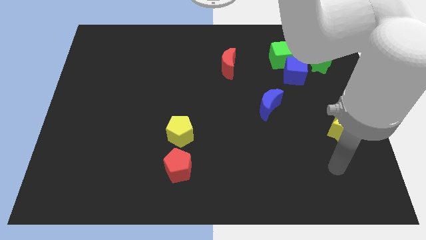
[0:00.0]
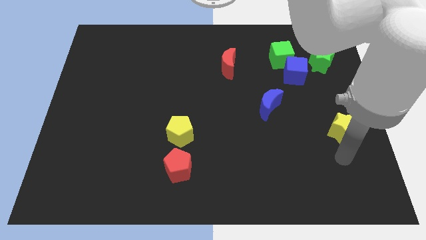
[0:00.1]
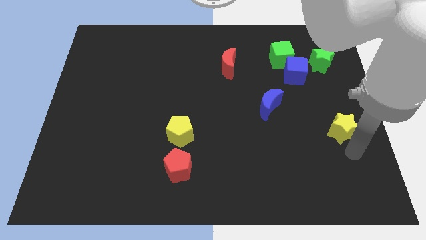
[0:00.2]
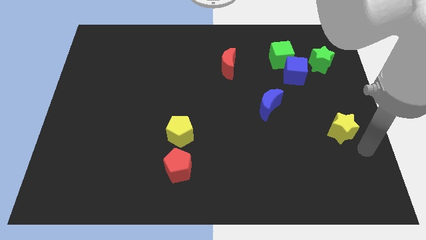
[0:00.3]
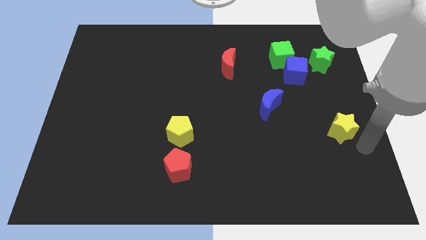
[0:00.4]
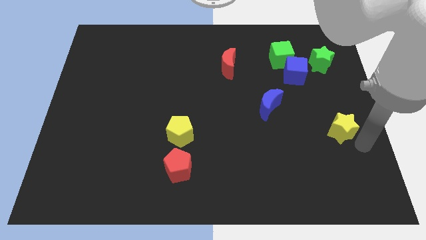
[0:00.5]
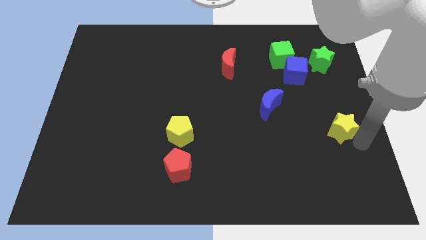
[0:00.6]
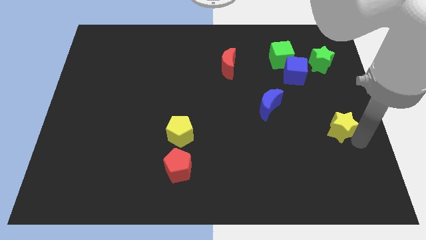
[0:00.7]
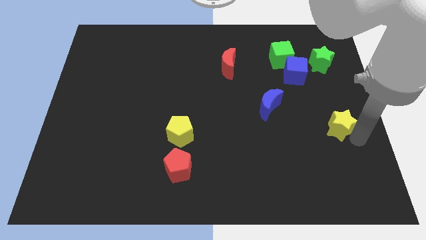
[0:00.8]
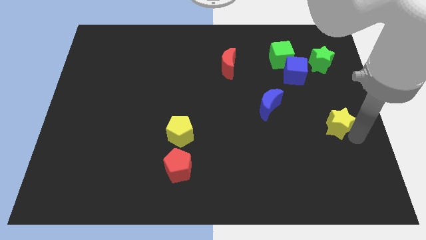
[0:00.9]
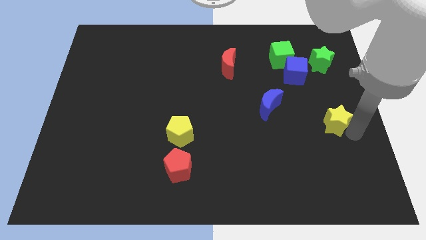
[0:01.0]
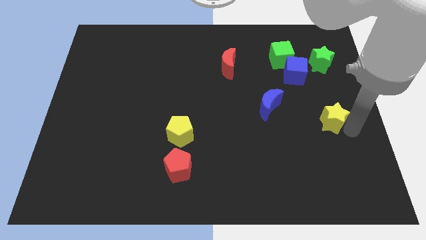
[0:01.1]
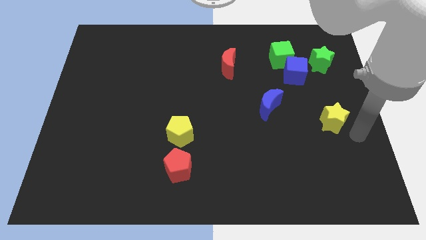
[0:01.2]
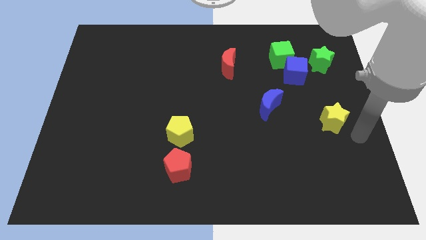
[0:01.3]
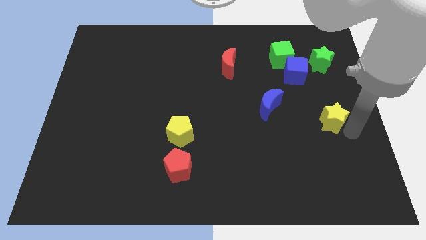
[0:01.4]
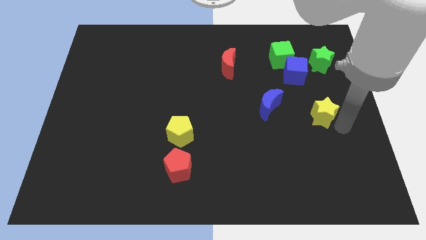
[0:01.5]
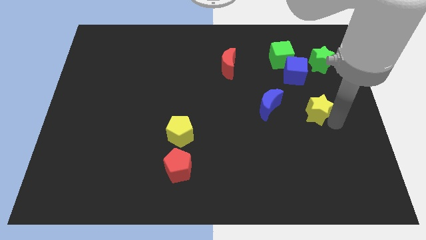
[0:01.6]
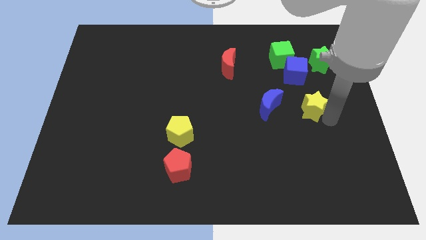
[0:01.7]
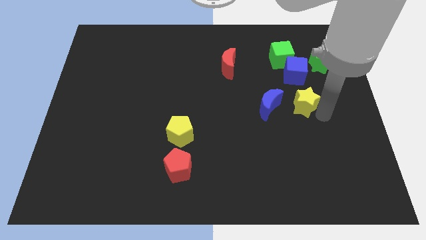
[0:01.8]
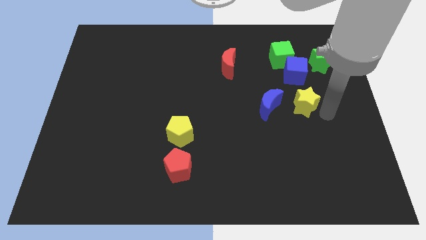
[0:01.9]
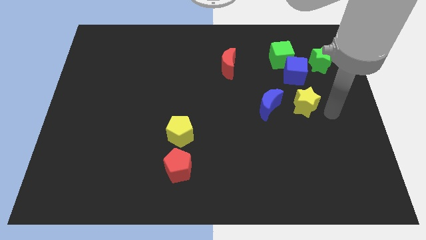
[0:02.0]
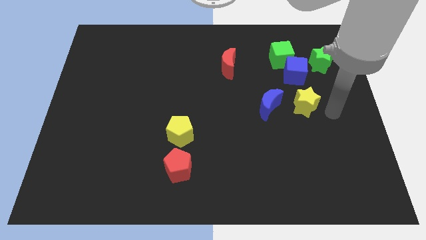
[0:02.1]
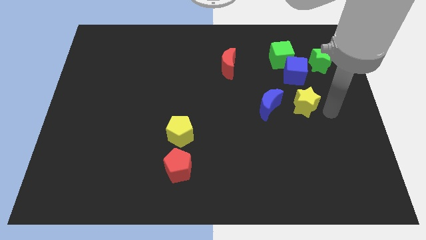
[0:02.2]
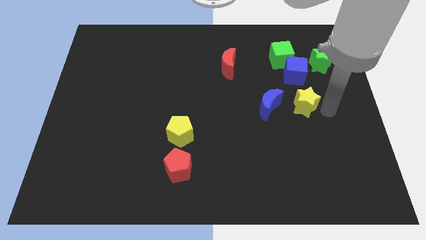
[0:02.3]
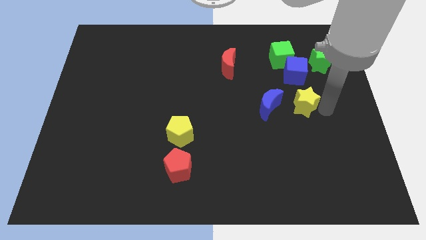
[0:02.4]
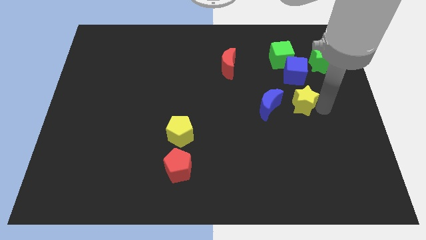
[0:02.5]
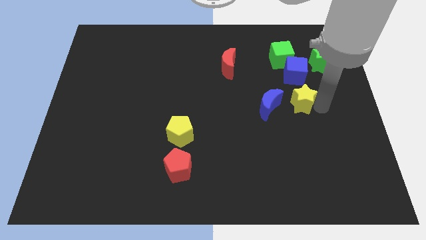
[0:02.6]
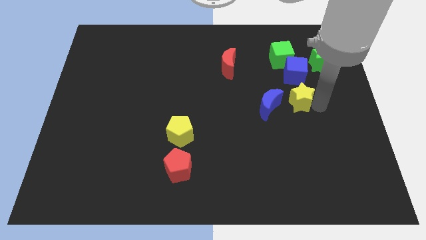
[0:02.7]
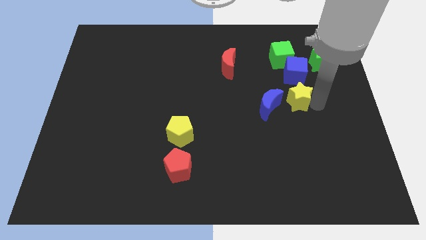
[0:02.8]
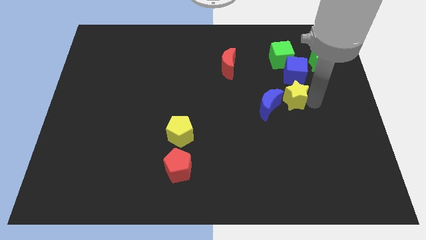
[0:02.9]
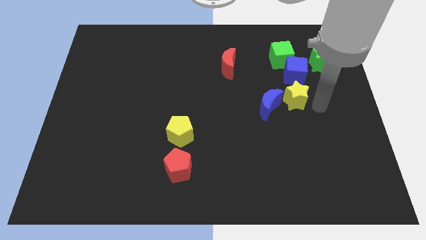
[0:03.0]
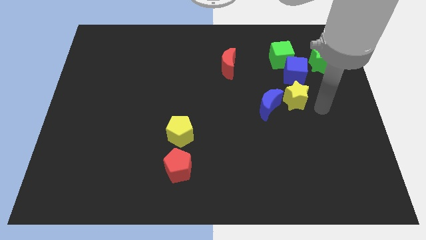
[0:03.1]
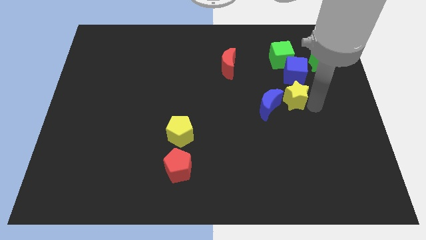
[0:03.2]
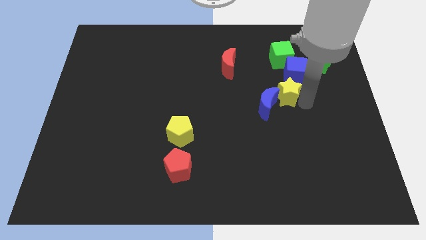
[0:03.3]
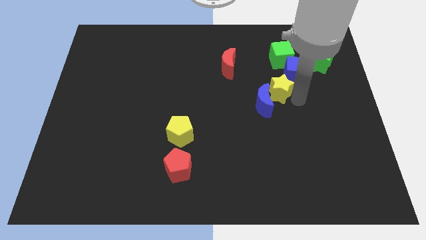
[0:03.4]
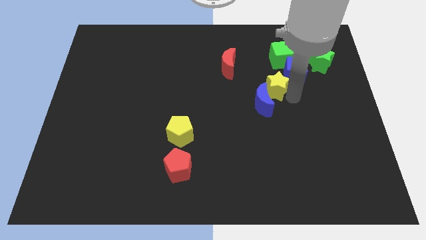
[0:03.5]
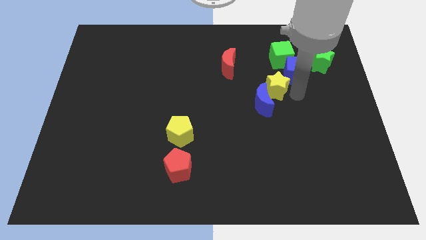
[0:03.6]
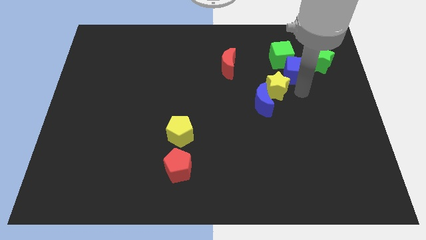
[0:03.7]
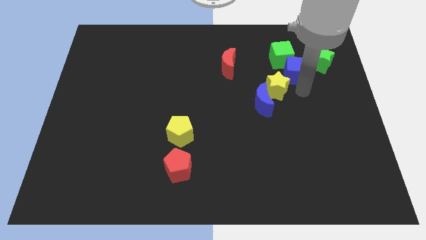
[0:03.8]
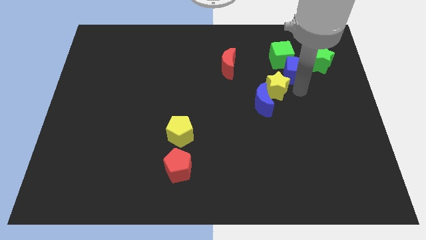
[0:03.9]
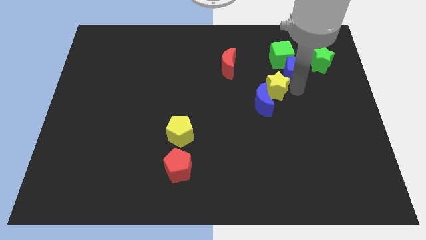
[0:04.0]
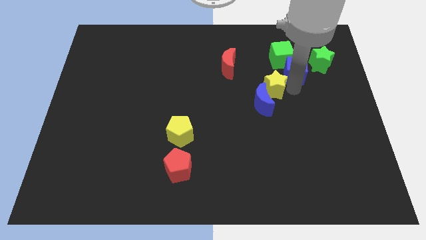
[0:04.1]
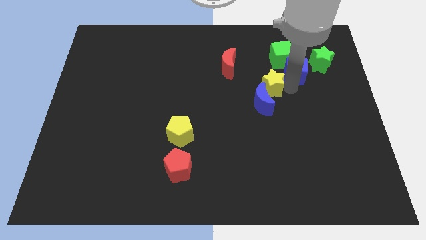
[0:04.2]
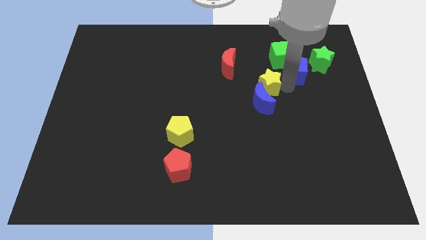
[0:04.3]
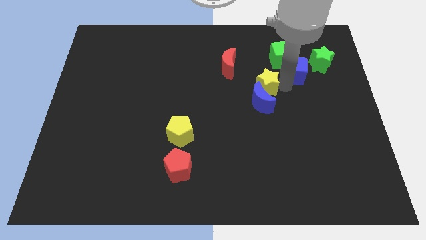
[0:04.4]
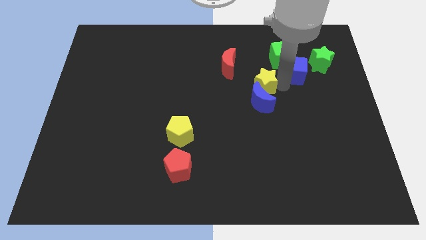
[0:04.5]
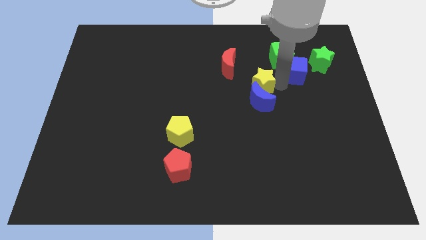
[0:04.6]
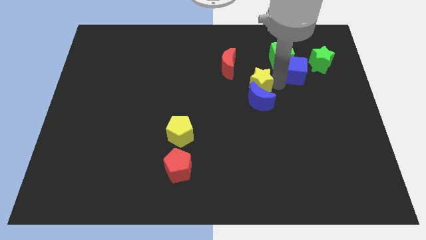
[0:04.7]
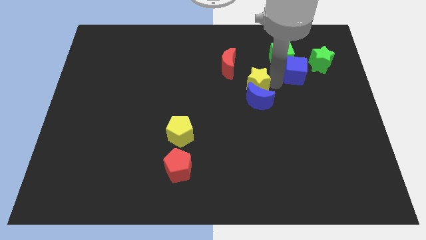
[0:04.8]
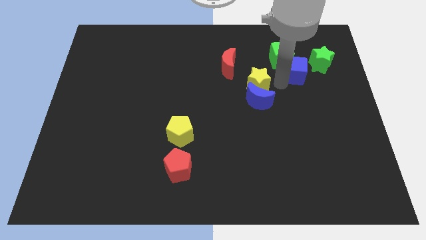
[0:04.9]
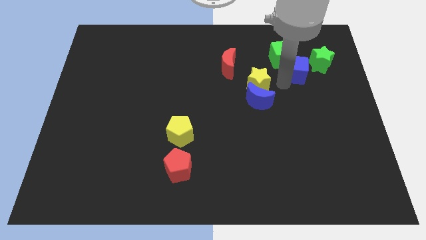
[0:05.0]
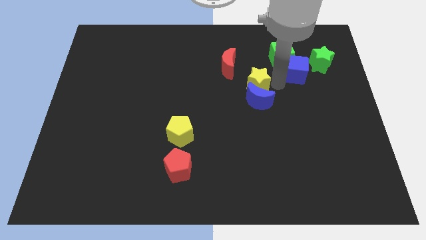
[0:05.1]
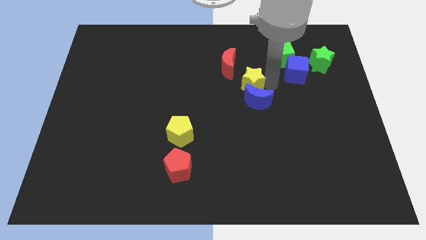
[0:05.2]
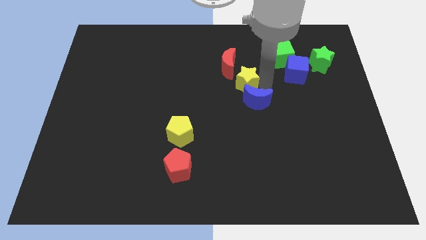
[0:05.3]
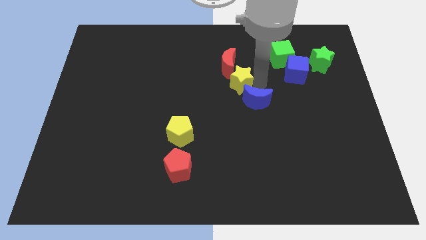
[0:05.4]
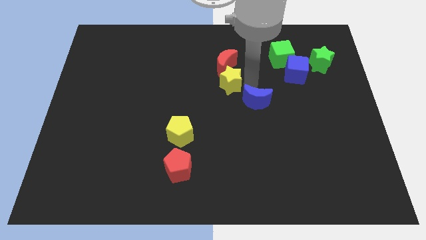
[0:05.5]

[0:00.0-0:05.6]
slide the yellow star to the bottom left of the red moon

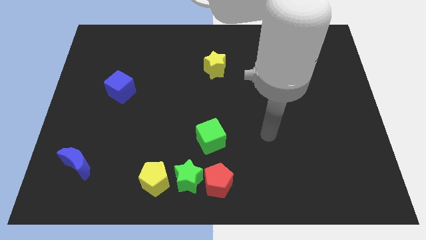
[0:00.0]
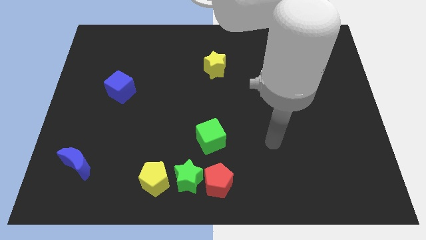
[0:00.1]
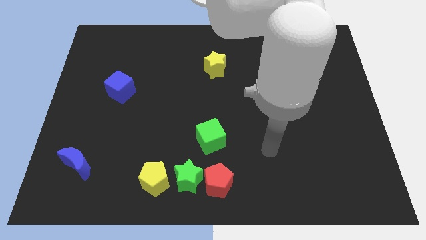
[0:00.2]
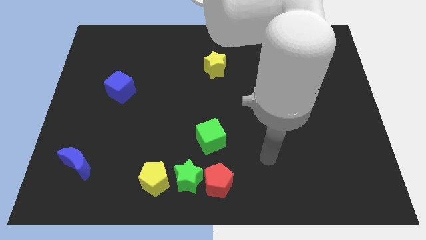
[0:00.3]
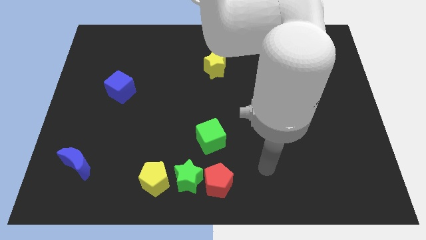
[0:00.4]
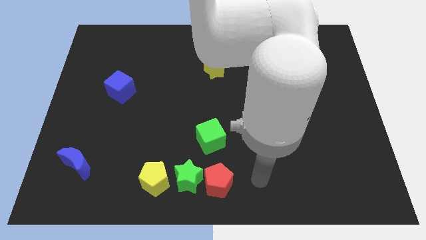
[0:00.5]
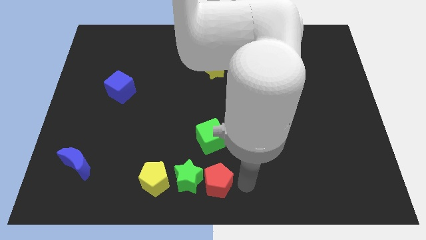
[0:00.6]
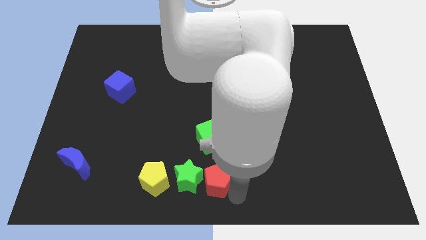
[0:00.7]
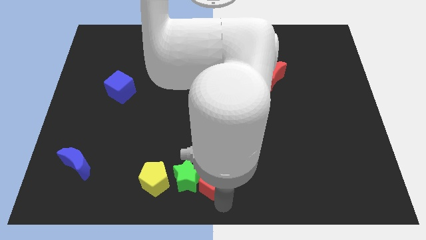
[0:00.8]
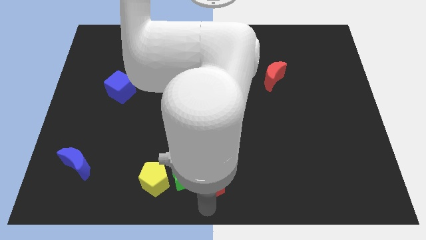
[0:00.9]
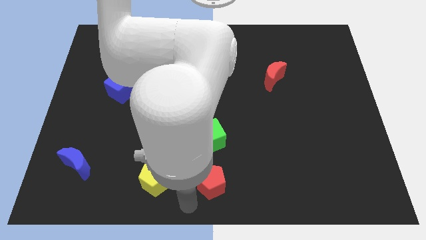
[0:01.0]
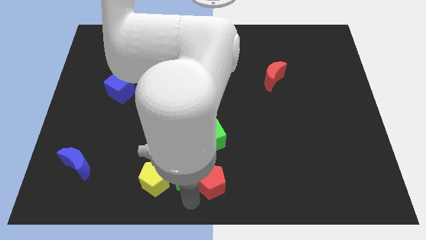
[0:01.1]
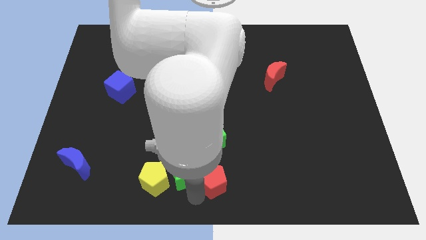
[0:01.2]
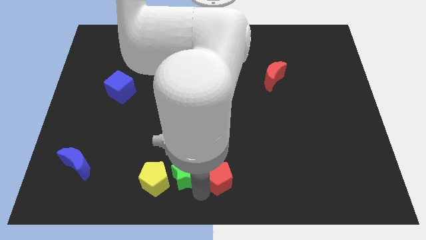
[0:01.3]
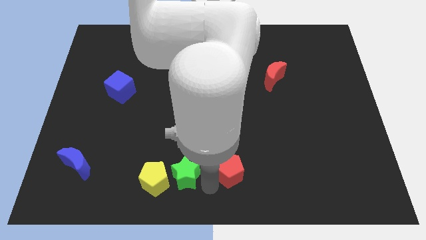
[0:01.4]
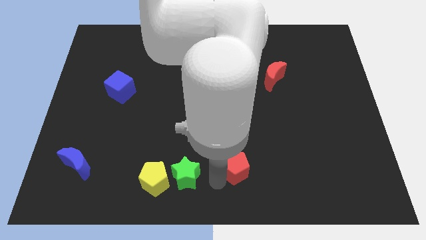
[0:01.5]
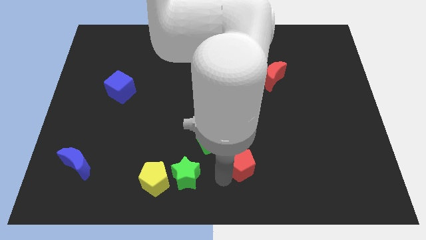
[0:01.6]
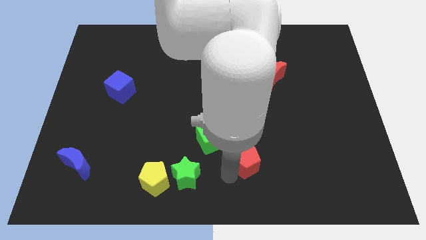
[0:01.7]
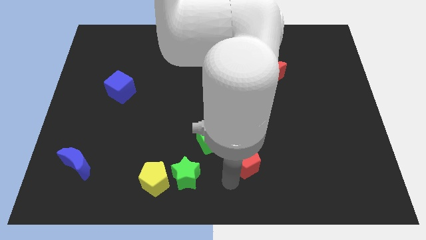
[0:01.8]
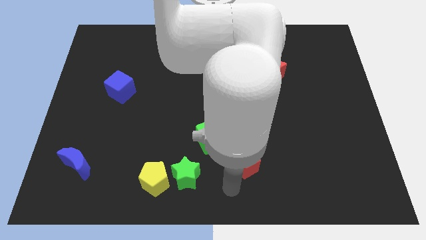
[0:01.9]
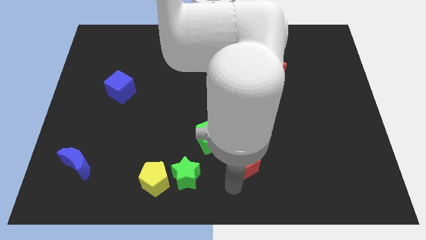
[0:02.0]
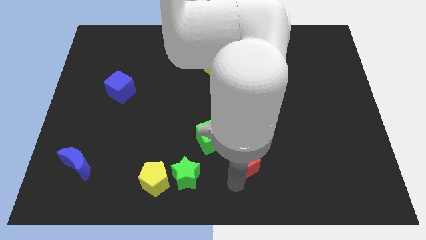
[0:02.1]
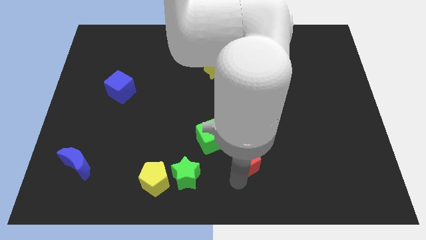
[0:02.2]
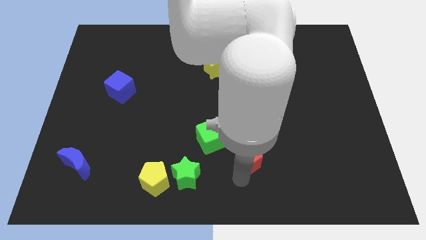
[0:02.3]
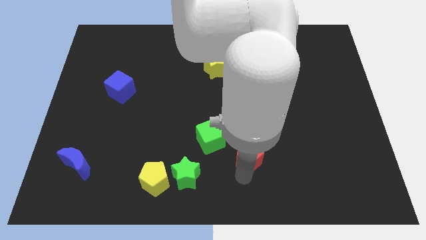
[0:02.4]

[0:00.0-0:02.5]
slide the red pentagon to the right side of the green cube
